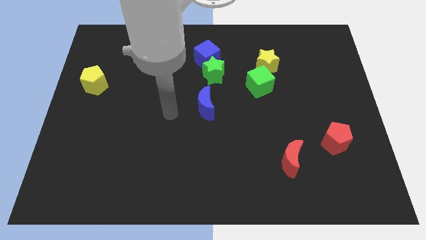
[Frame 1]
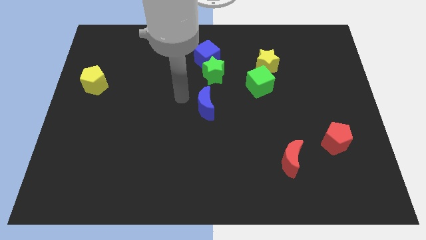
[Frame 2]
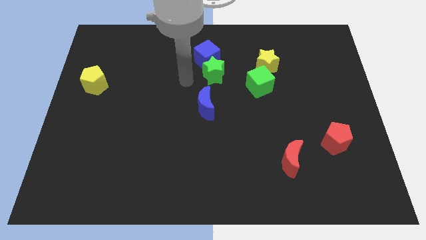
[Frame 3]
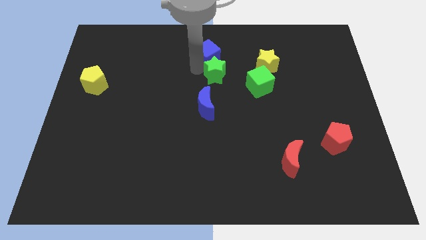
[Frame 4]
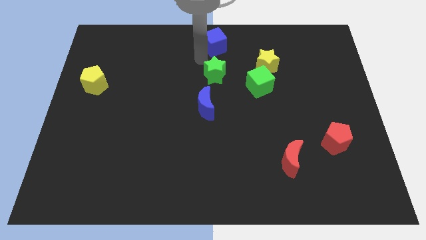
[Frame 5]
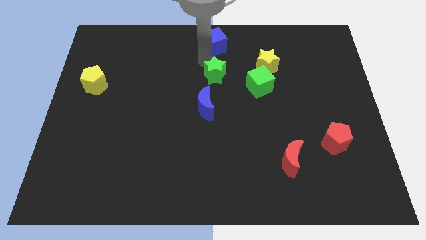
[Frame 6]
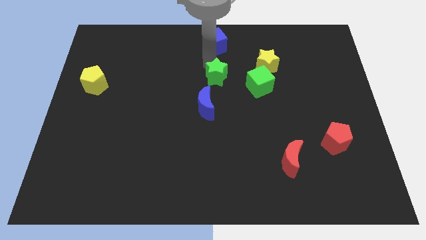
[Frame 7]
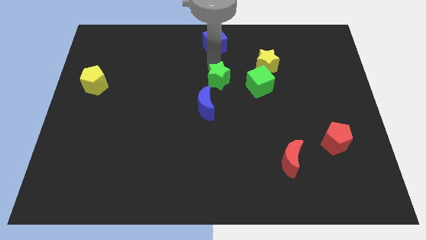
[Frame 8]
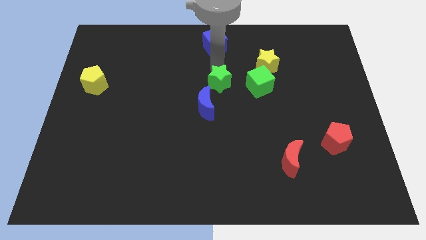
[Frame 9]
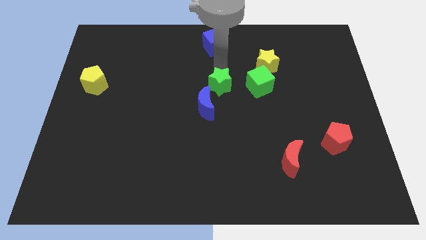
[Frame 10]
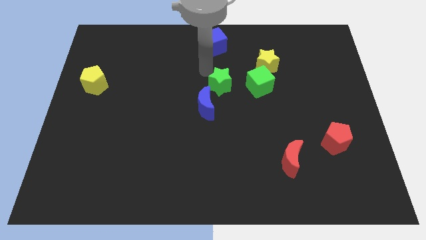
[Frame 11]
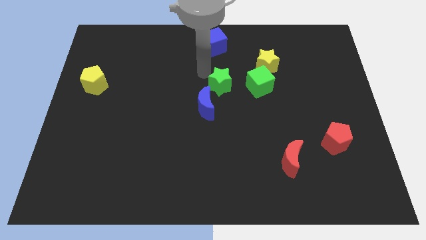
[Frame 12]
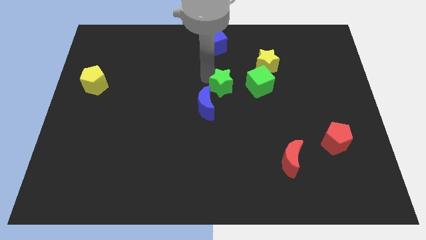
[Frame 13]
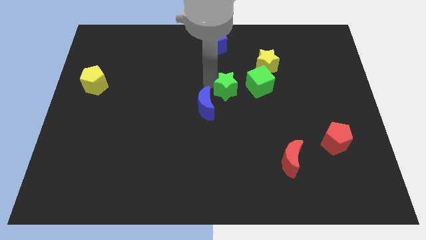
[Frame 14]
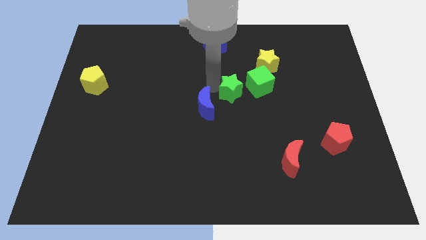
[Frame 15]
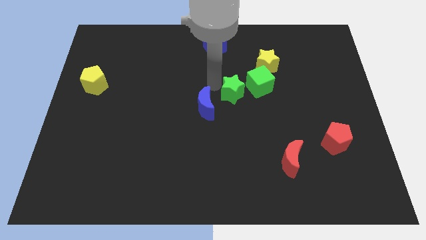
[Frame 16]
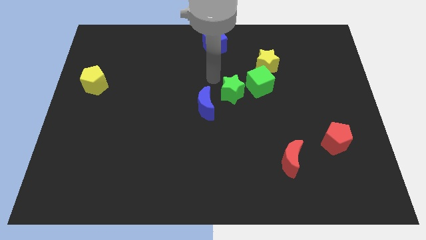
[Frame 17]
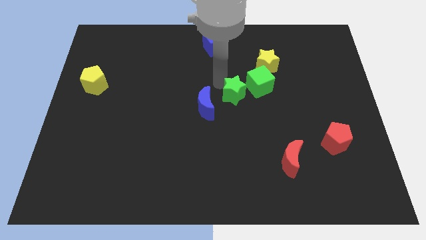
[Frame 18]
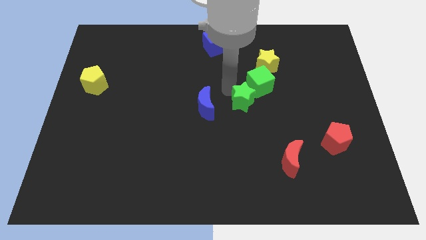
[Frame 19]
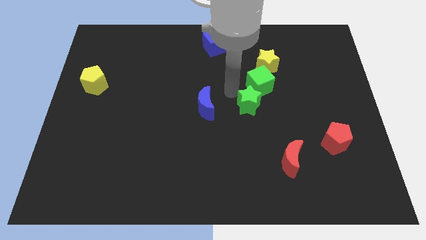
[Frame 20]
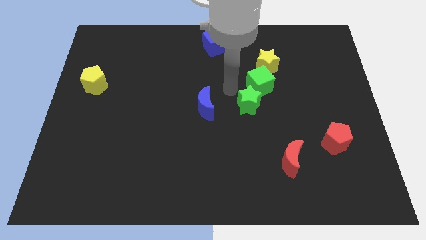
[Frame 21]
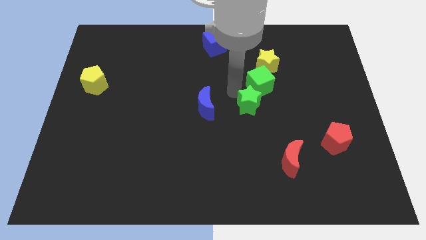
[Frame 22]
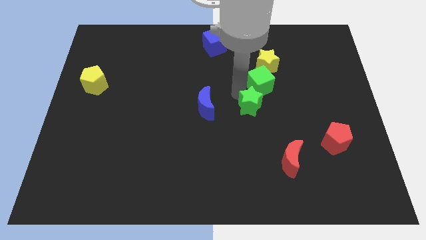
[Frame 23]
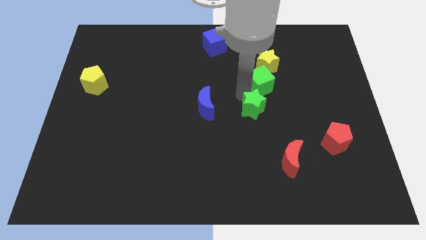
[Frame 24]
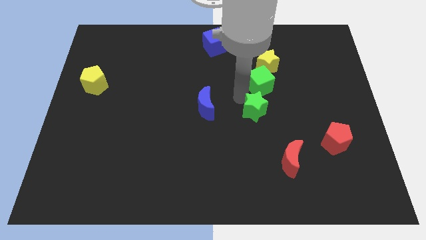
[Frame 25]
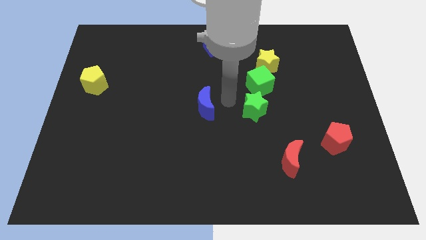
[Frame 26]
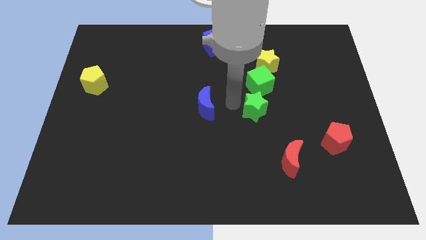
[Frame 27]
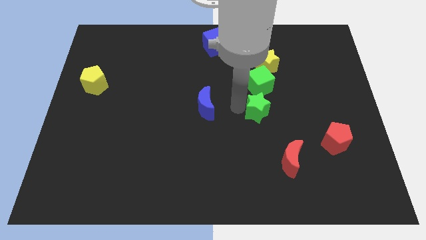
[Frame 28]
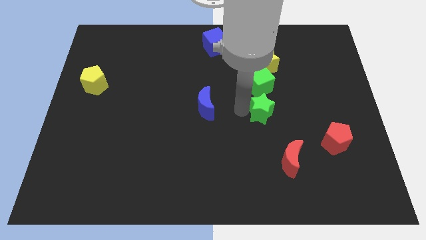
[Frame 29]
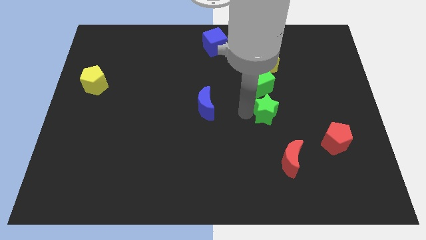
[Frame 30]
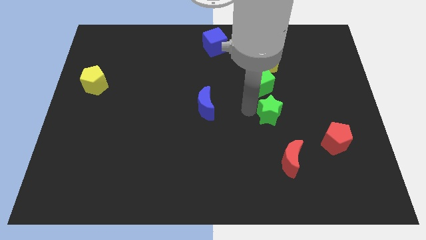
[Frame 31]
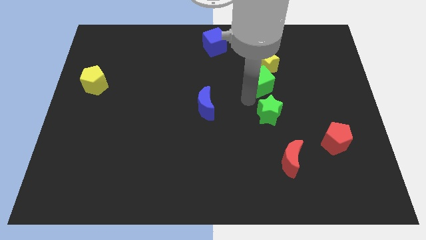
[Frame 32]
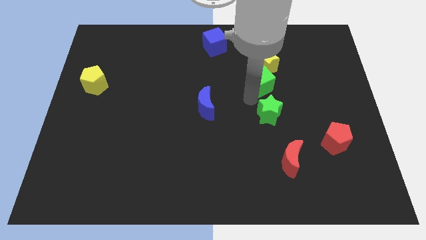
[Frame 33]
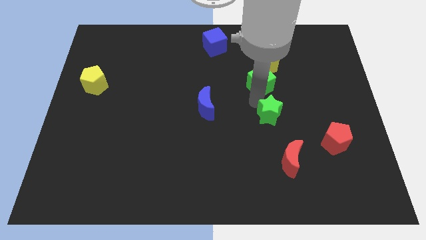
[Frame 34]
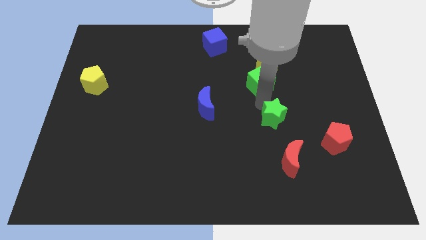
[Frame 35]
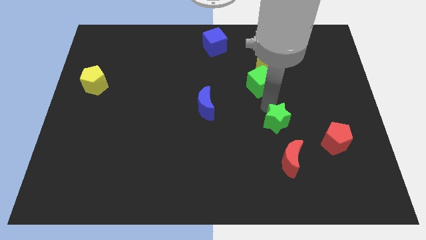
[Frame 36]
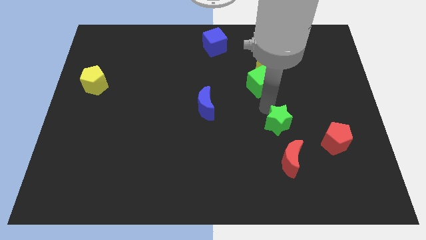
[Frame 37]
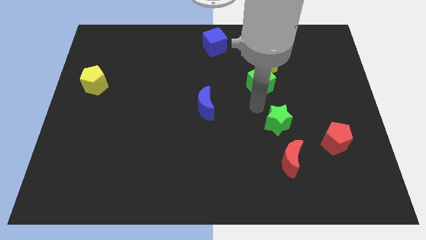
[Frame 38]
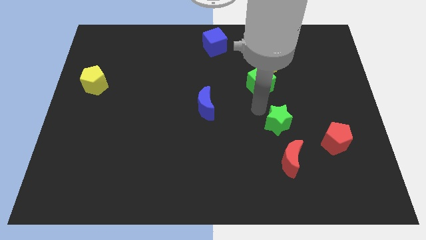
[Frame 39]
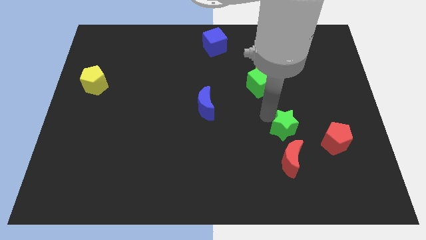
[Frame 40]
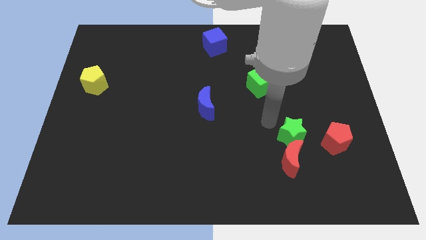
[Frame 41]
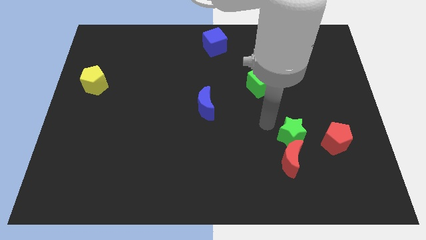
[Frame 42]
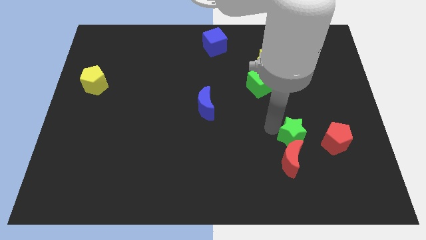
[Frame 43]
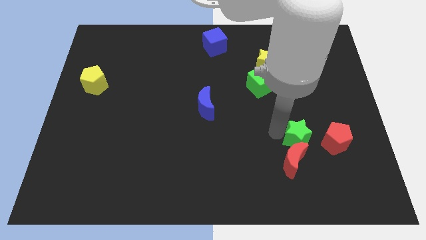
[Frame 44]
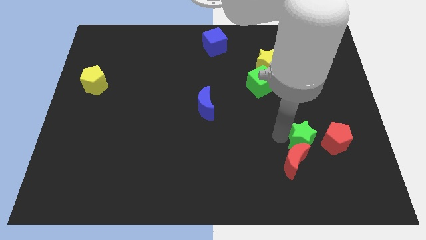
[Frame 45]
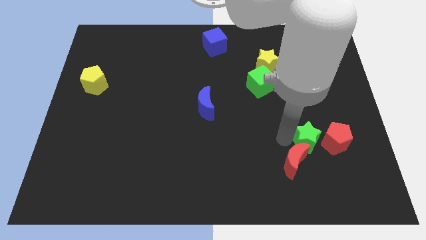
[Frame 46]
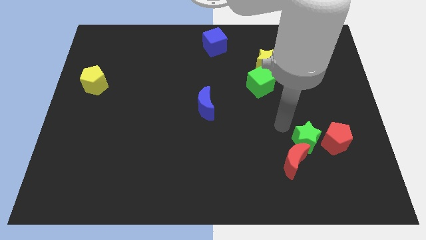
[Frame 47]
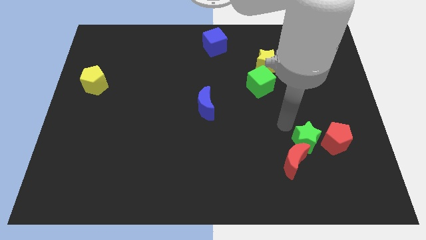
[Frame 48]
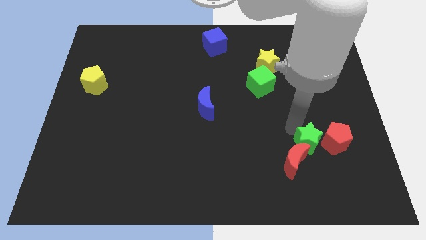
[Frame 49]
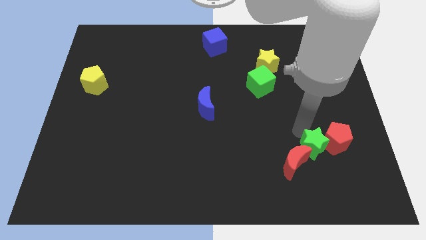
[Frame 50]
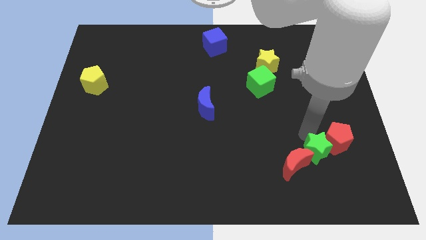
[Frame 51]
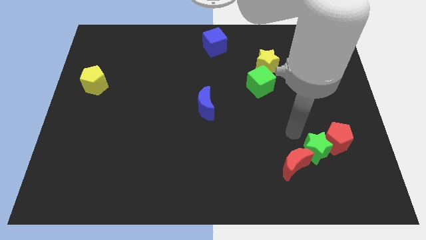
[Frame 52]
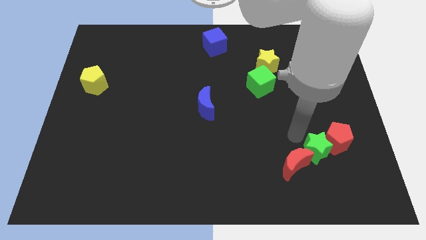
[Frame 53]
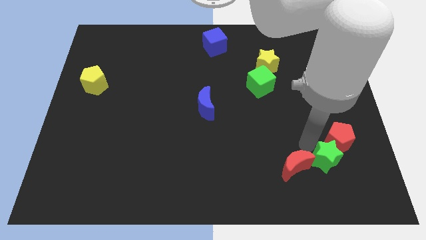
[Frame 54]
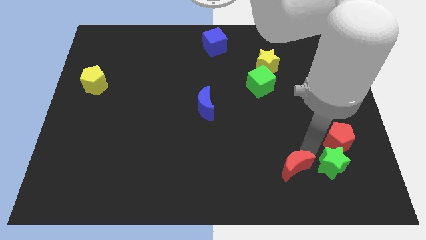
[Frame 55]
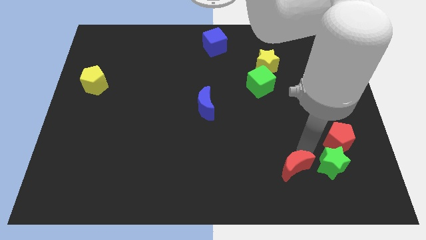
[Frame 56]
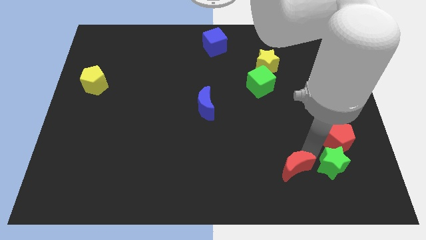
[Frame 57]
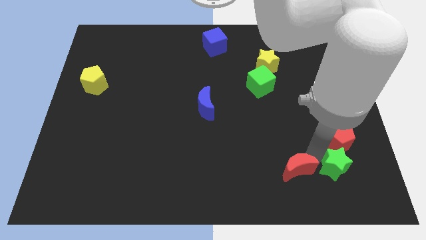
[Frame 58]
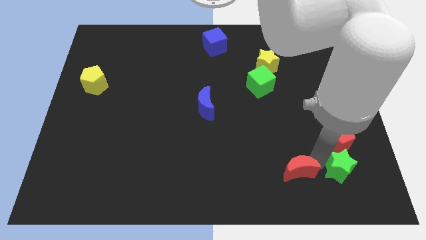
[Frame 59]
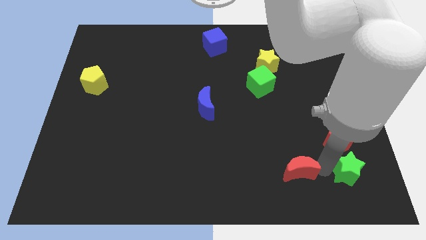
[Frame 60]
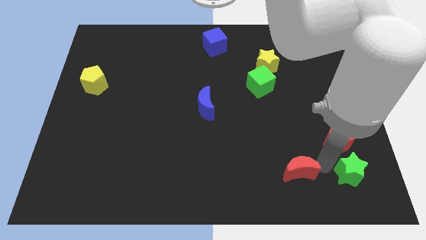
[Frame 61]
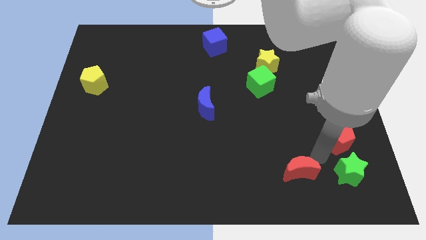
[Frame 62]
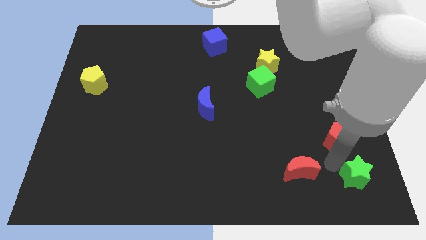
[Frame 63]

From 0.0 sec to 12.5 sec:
move the green star to the bottom right of the board

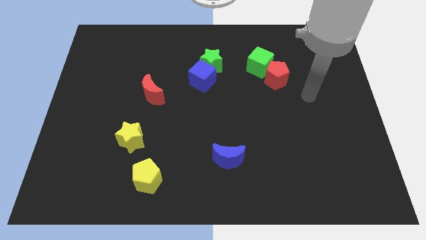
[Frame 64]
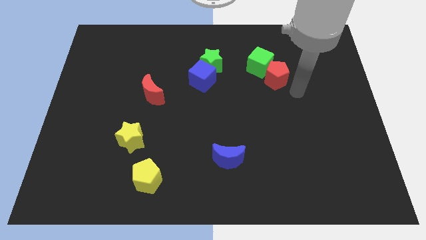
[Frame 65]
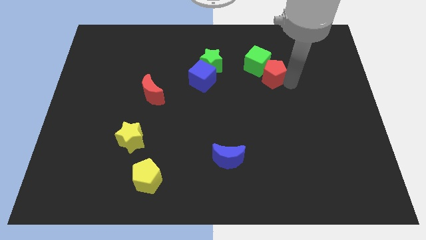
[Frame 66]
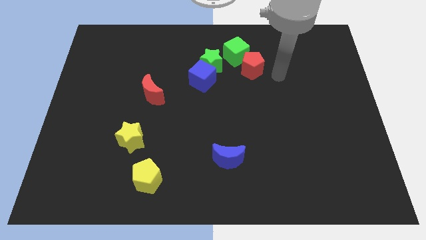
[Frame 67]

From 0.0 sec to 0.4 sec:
move the green cube to the top side
